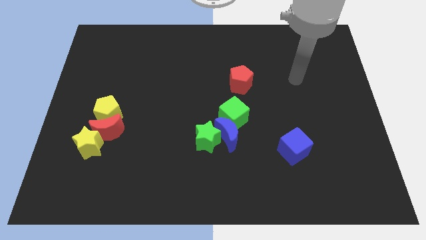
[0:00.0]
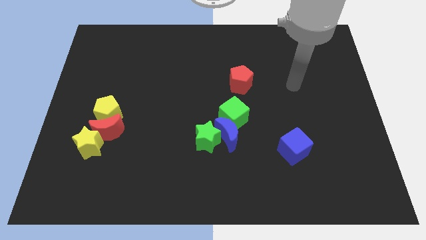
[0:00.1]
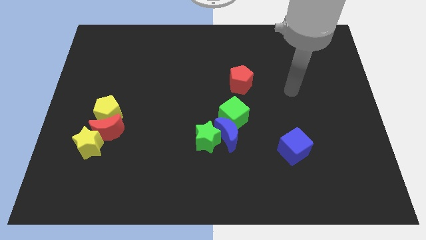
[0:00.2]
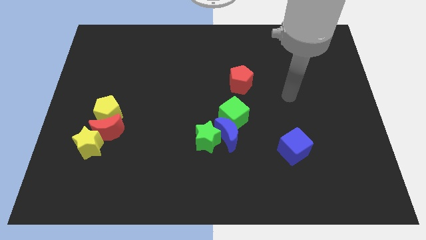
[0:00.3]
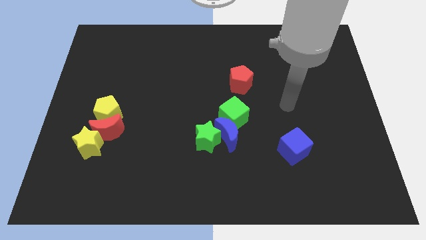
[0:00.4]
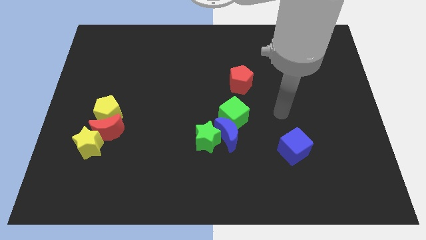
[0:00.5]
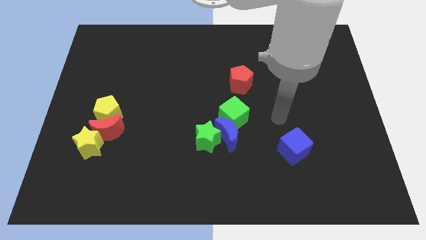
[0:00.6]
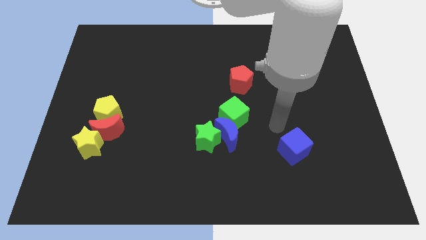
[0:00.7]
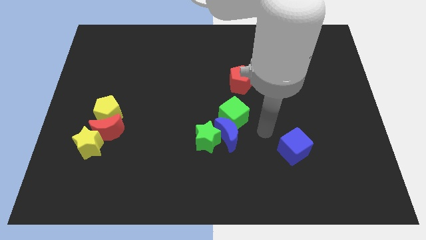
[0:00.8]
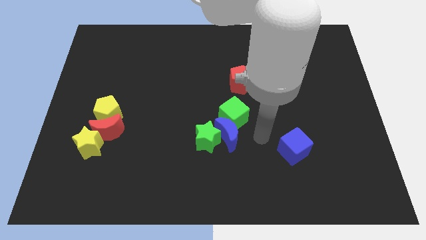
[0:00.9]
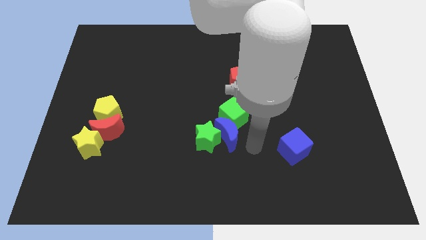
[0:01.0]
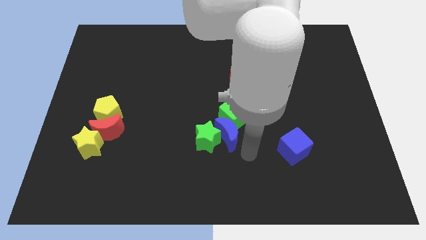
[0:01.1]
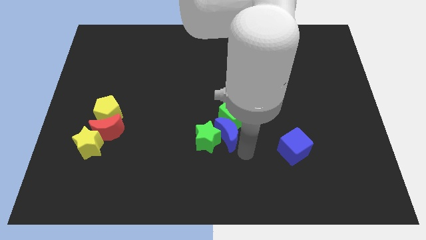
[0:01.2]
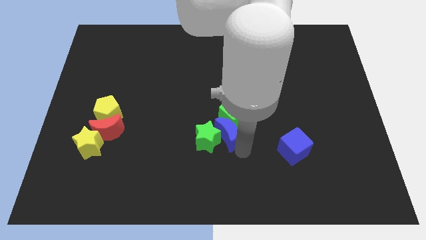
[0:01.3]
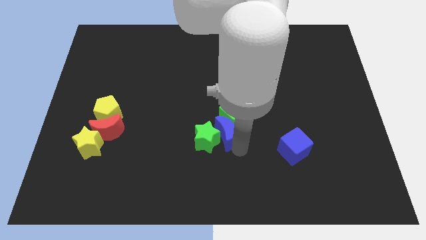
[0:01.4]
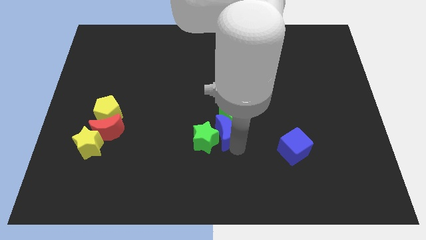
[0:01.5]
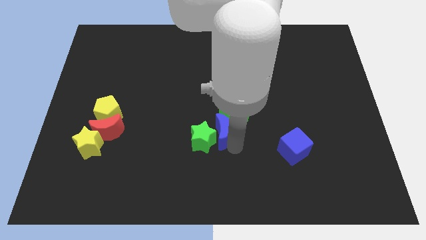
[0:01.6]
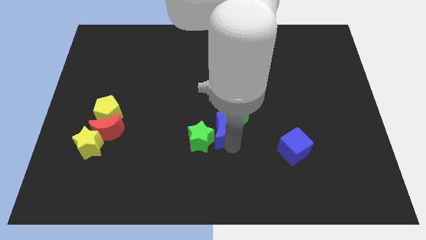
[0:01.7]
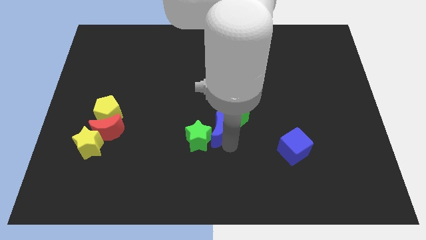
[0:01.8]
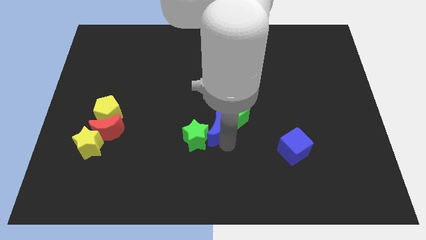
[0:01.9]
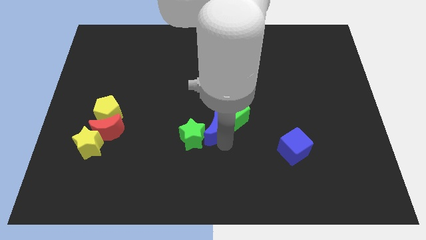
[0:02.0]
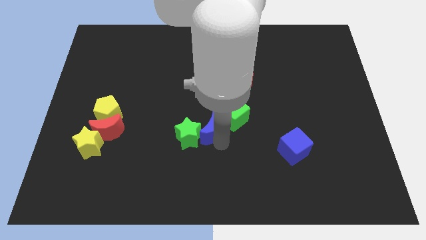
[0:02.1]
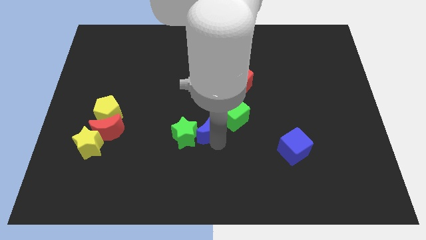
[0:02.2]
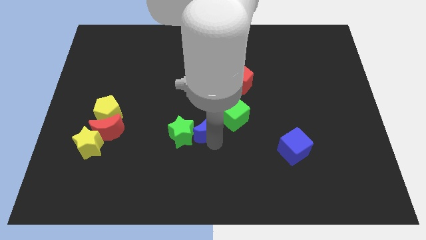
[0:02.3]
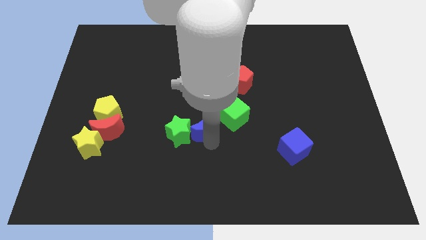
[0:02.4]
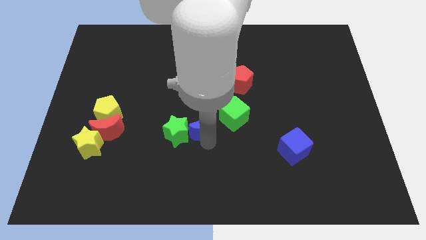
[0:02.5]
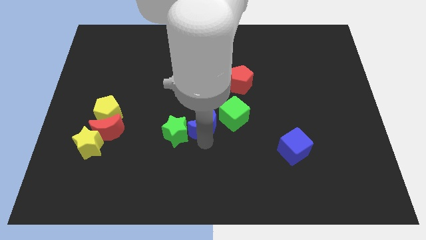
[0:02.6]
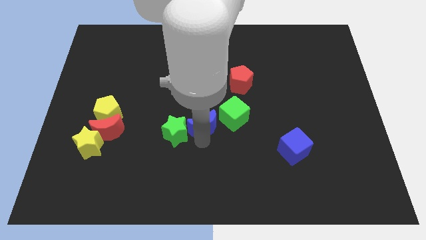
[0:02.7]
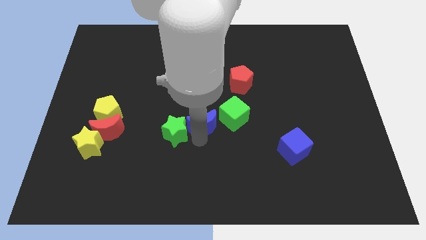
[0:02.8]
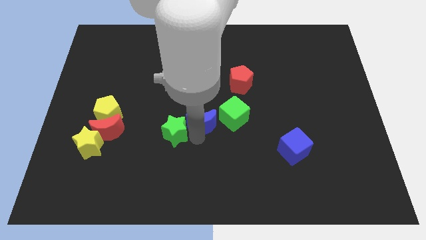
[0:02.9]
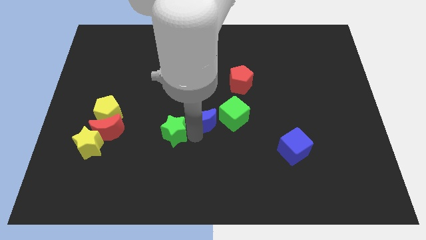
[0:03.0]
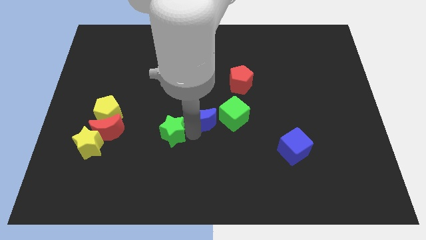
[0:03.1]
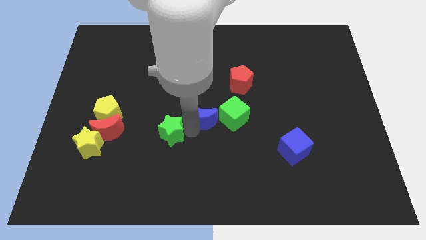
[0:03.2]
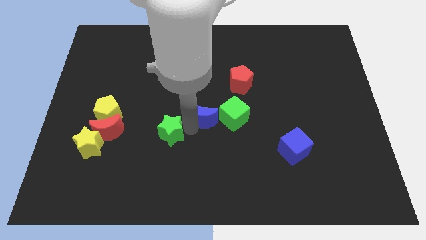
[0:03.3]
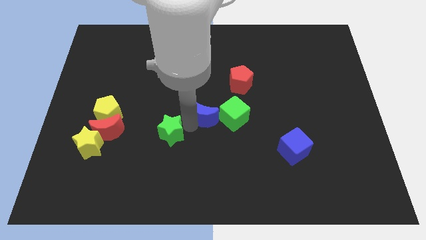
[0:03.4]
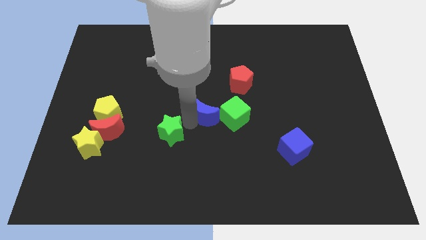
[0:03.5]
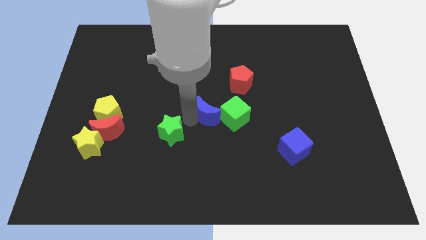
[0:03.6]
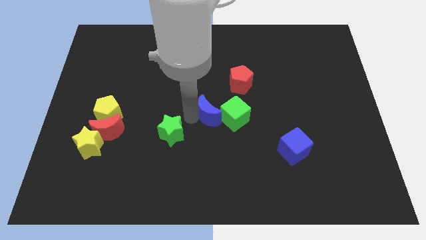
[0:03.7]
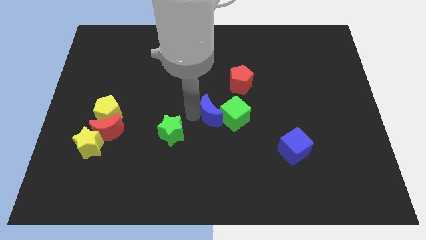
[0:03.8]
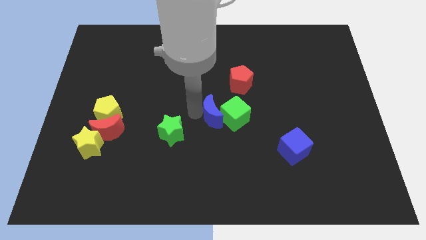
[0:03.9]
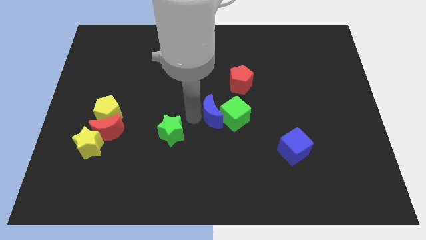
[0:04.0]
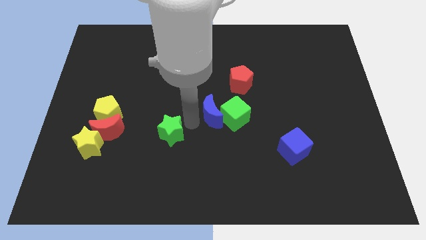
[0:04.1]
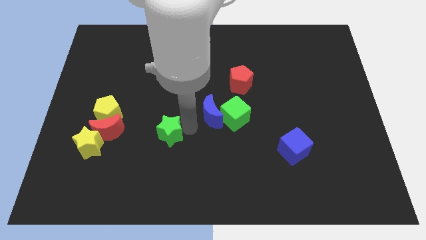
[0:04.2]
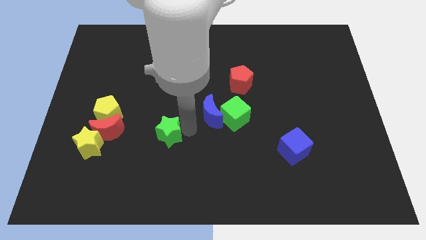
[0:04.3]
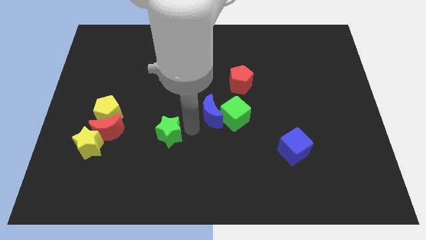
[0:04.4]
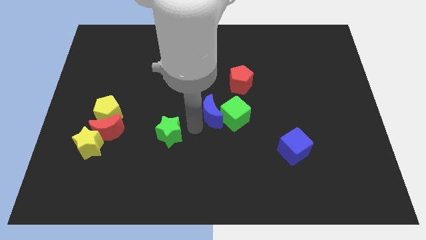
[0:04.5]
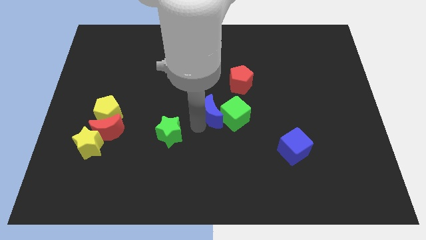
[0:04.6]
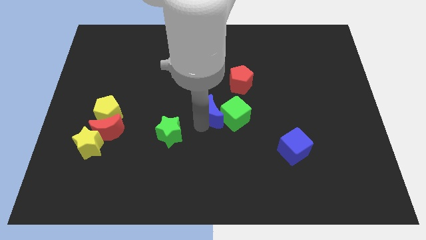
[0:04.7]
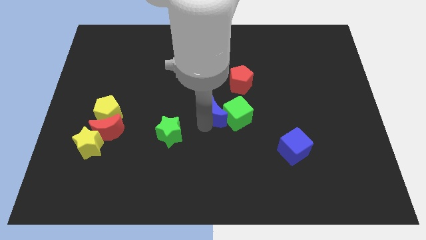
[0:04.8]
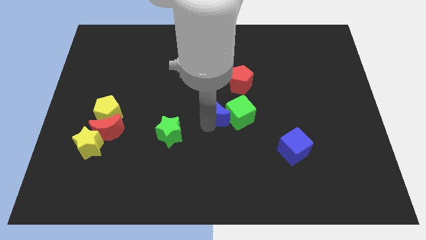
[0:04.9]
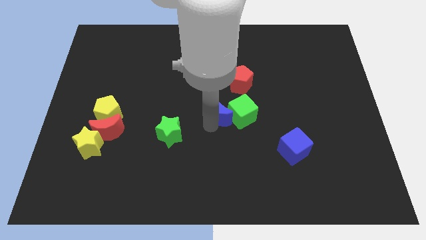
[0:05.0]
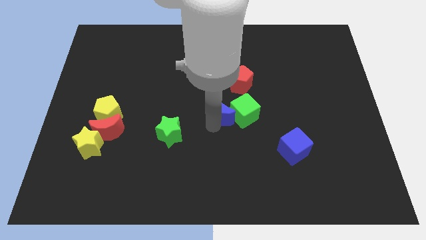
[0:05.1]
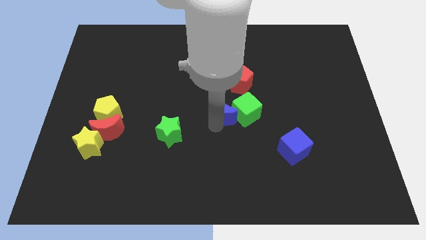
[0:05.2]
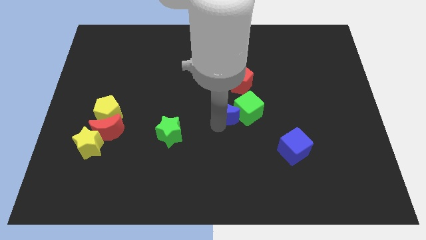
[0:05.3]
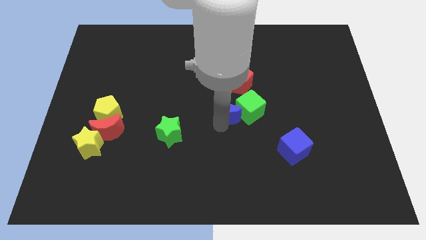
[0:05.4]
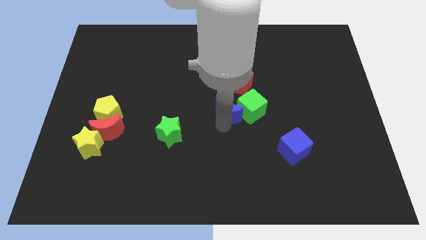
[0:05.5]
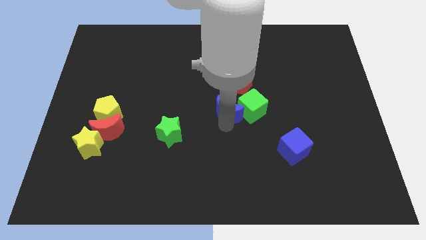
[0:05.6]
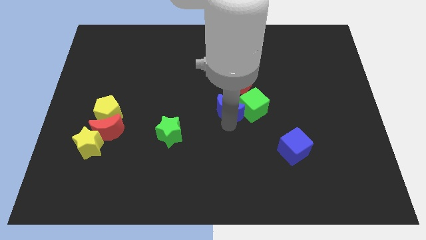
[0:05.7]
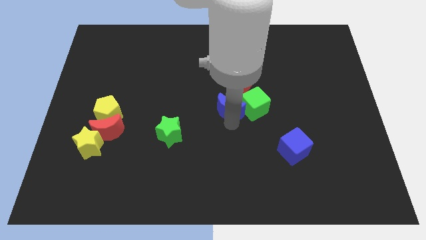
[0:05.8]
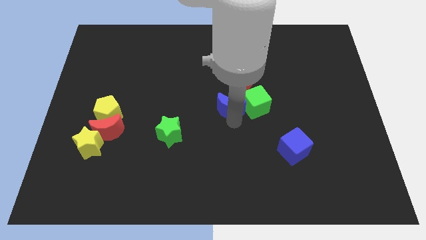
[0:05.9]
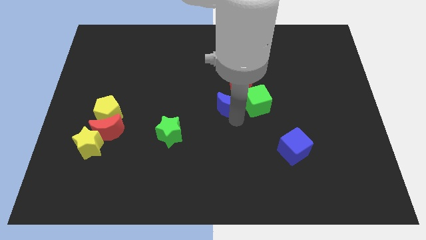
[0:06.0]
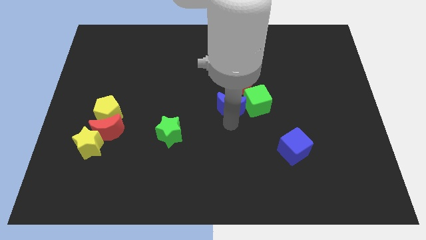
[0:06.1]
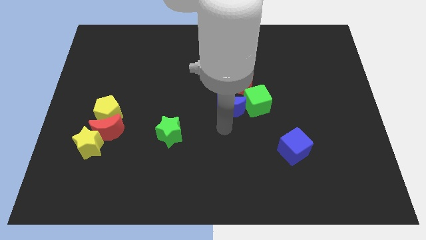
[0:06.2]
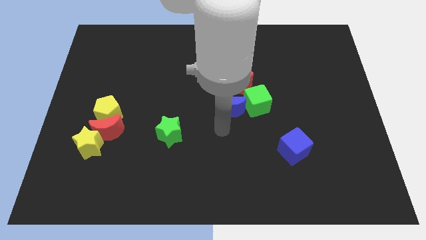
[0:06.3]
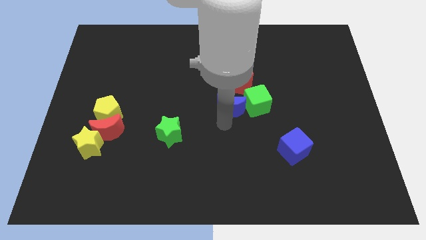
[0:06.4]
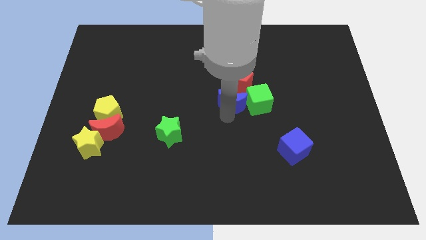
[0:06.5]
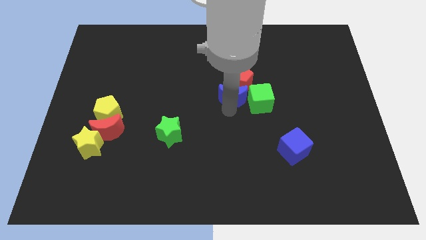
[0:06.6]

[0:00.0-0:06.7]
slide the blue moon to the red pentagon
